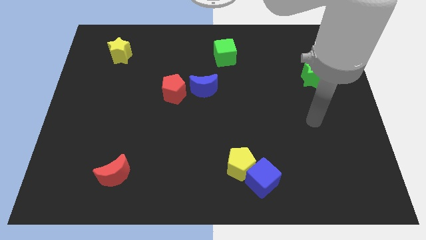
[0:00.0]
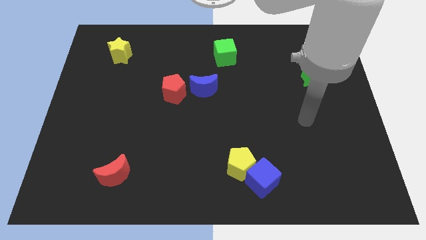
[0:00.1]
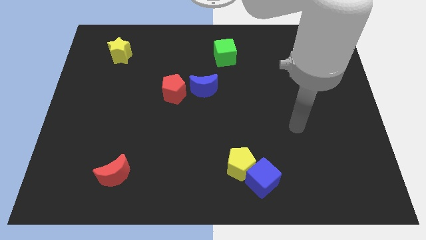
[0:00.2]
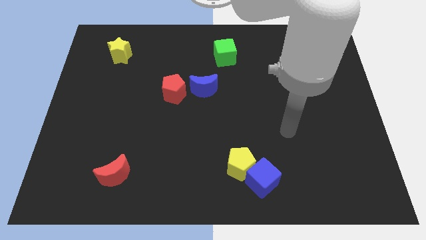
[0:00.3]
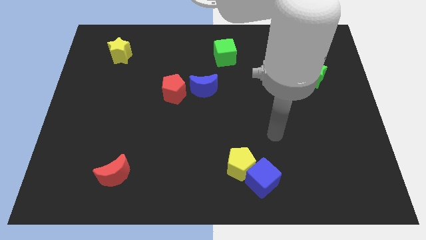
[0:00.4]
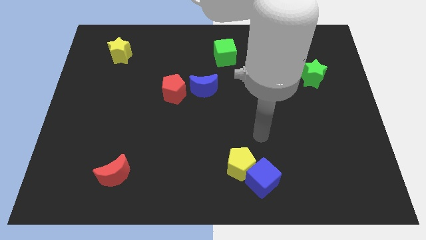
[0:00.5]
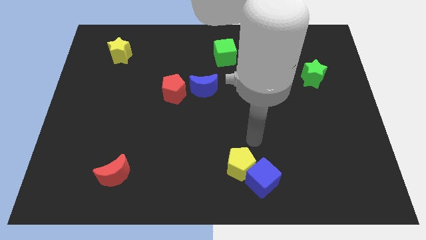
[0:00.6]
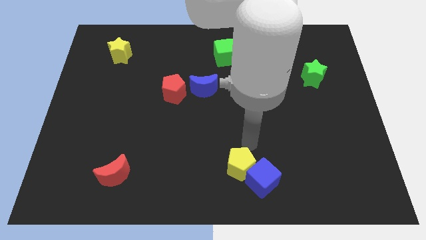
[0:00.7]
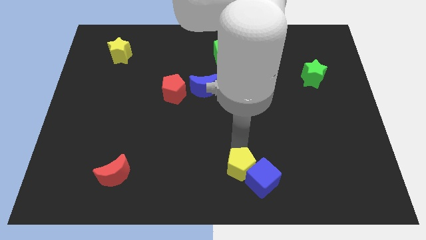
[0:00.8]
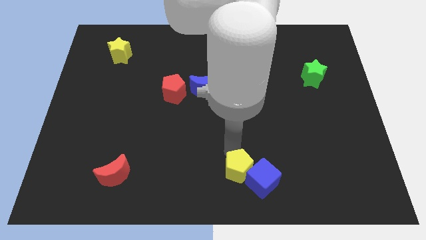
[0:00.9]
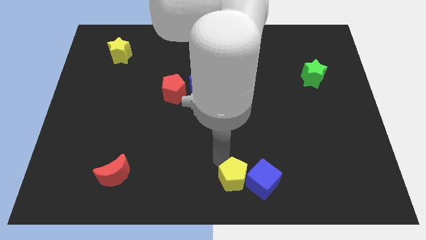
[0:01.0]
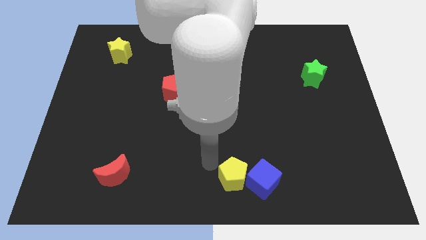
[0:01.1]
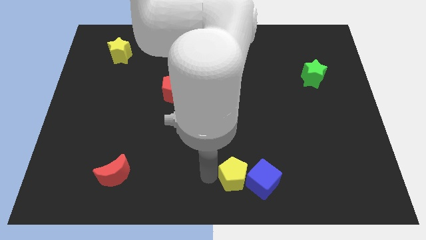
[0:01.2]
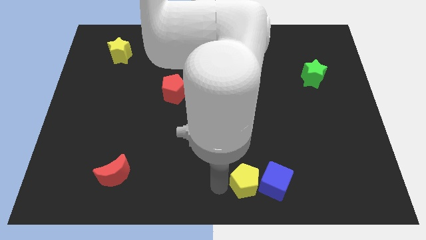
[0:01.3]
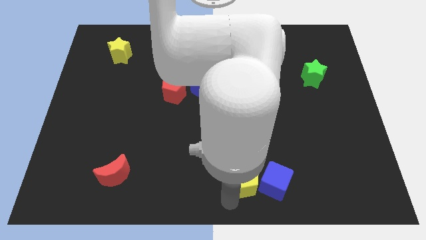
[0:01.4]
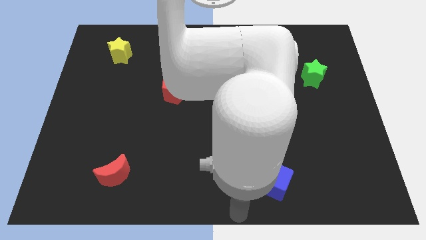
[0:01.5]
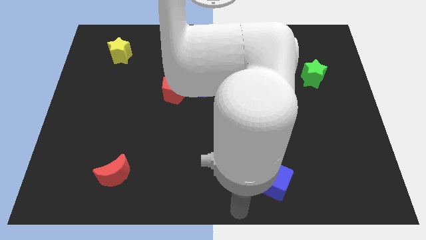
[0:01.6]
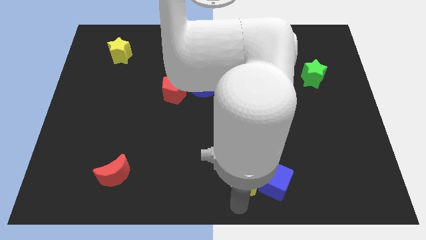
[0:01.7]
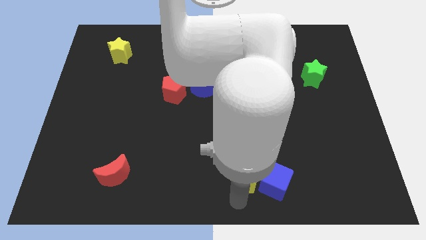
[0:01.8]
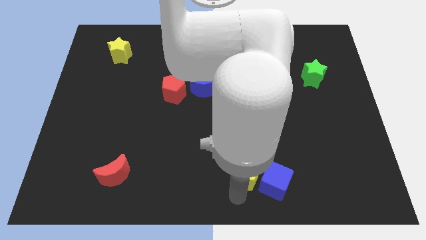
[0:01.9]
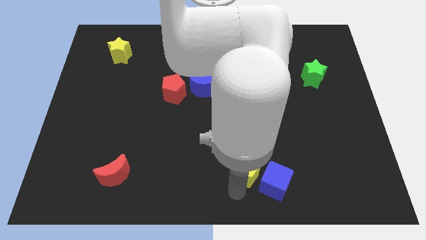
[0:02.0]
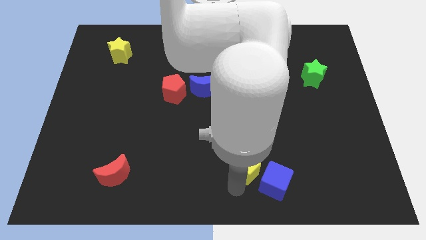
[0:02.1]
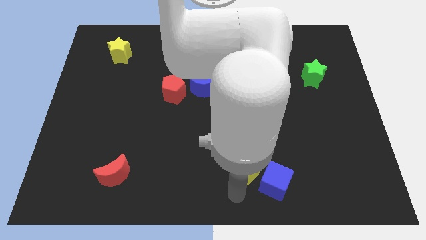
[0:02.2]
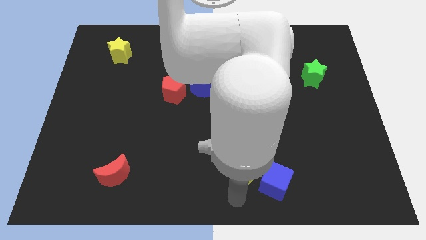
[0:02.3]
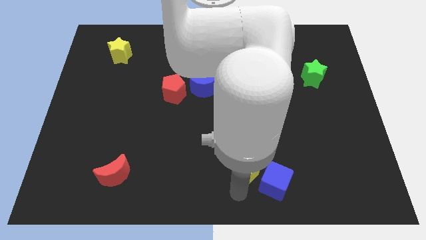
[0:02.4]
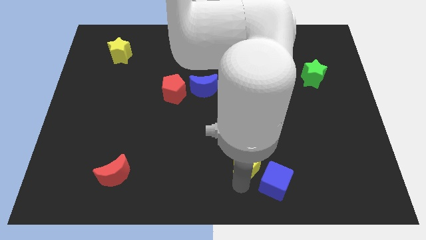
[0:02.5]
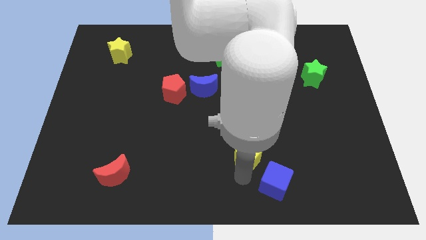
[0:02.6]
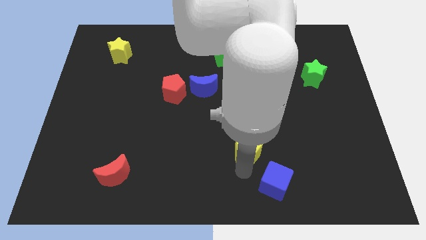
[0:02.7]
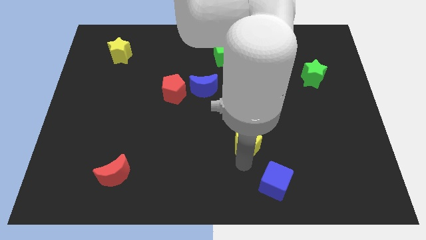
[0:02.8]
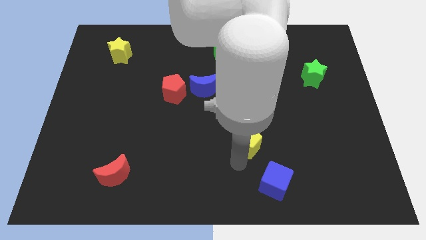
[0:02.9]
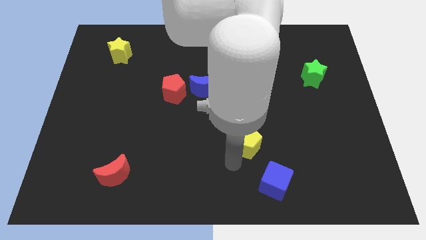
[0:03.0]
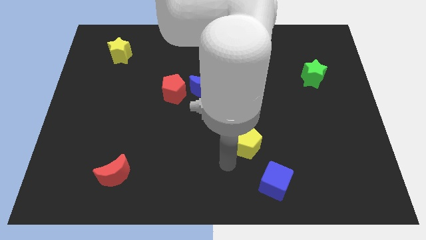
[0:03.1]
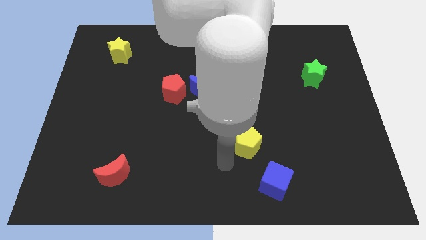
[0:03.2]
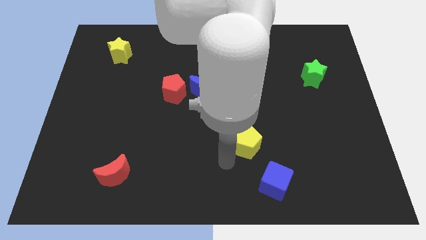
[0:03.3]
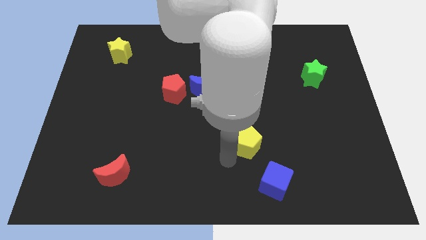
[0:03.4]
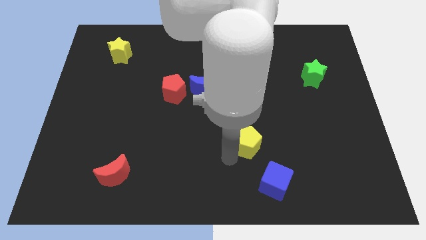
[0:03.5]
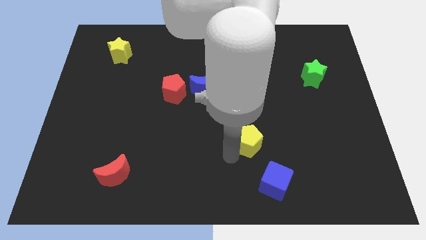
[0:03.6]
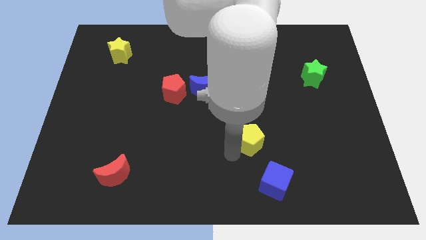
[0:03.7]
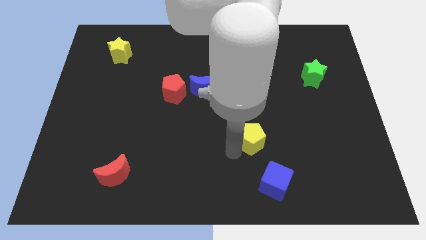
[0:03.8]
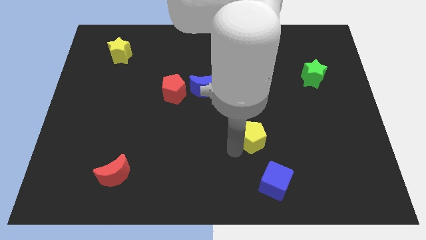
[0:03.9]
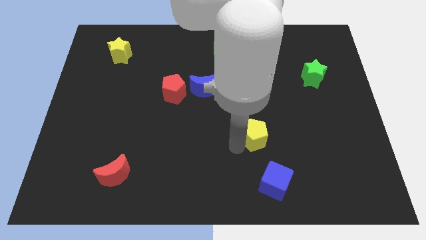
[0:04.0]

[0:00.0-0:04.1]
slide the yellow pentagon a little upwards and to the right diagonally

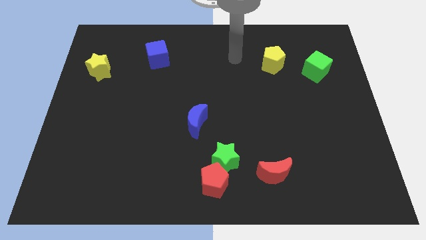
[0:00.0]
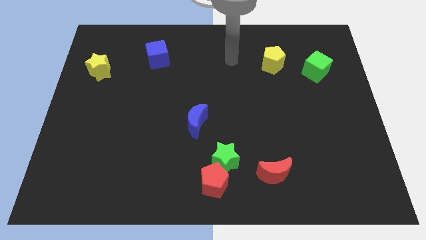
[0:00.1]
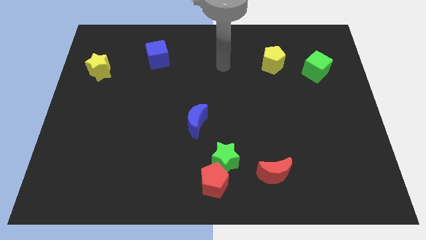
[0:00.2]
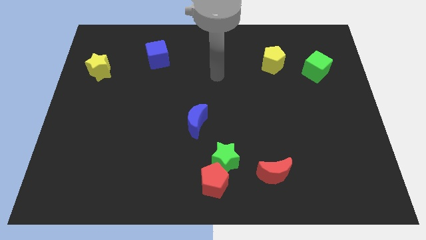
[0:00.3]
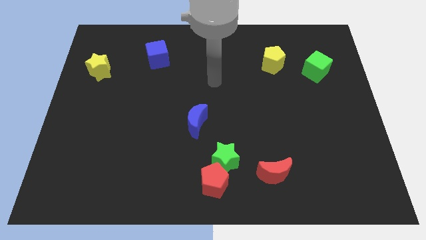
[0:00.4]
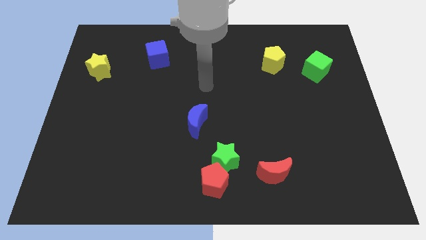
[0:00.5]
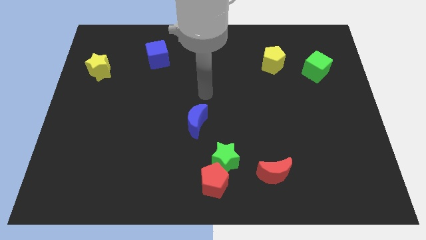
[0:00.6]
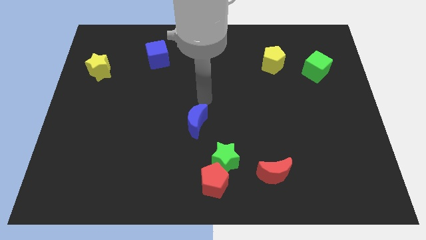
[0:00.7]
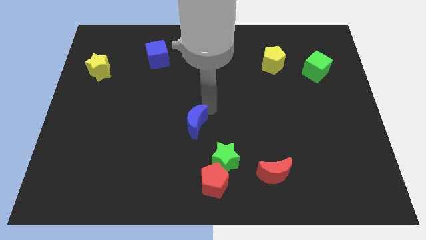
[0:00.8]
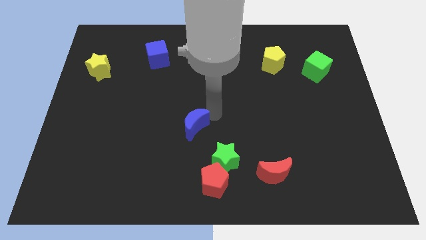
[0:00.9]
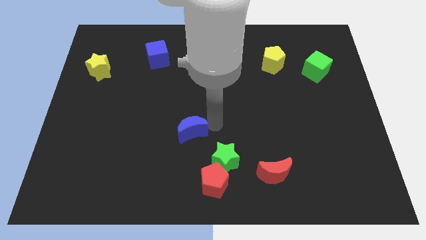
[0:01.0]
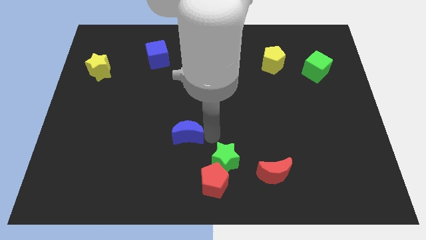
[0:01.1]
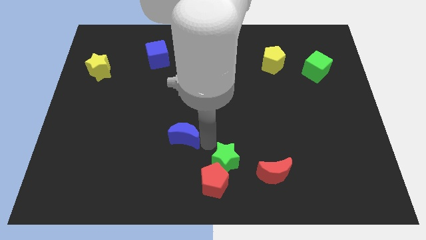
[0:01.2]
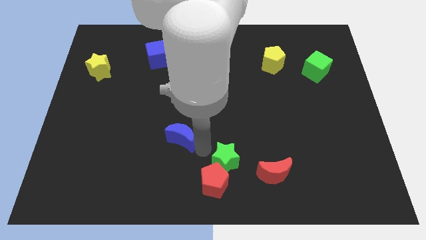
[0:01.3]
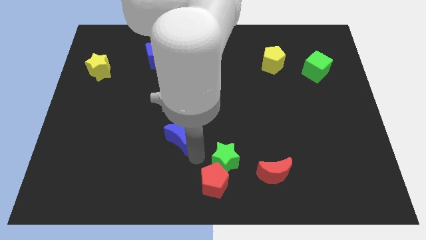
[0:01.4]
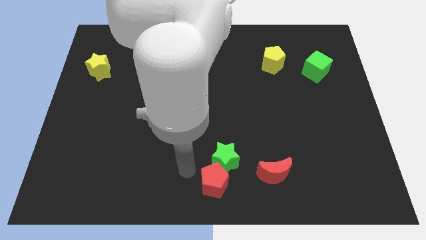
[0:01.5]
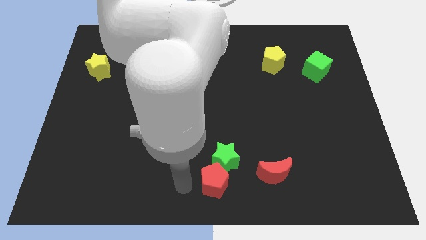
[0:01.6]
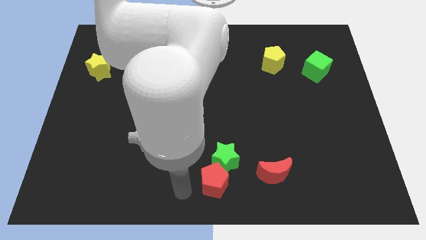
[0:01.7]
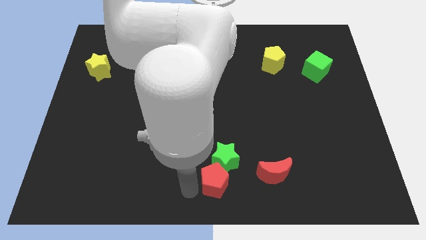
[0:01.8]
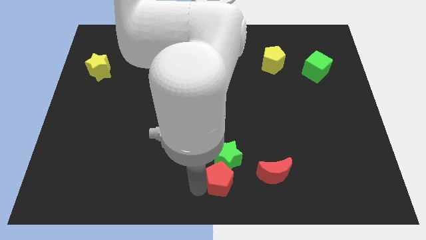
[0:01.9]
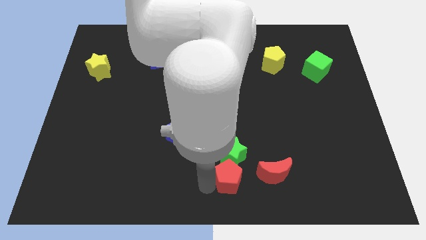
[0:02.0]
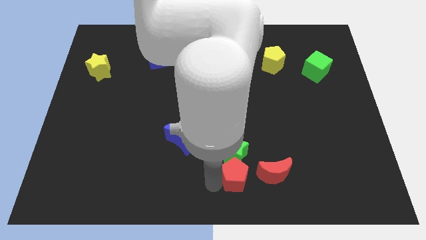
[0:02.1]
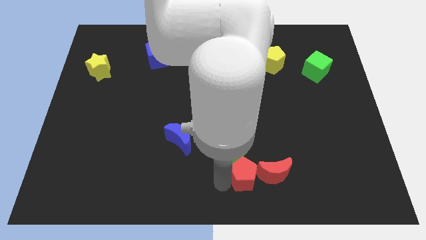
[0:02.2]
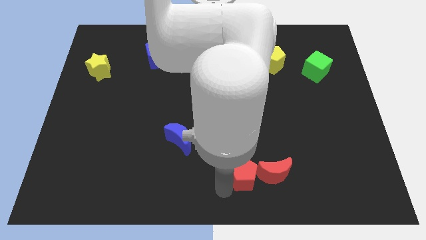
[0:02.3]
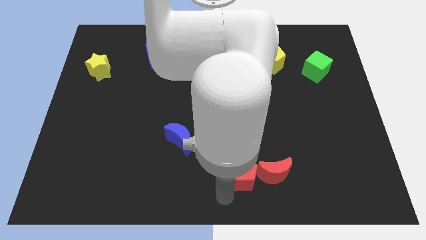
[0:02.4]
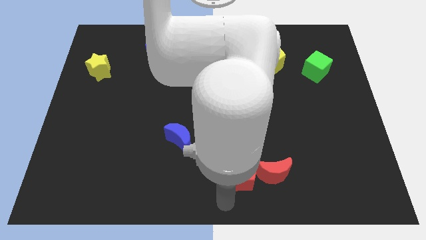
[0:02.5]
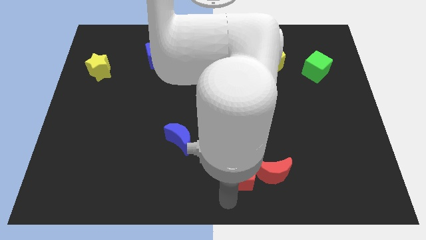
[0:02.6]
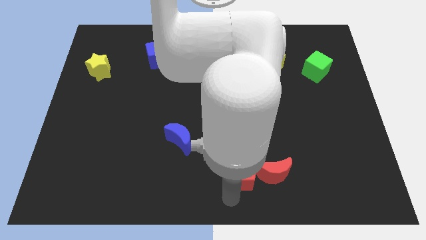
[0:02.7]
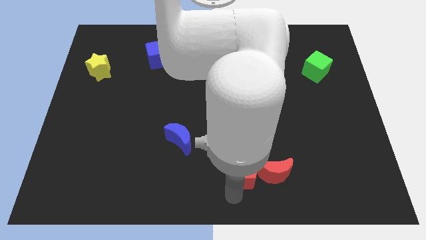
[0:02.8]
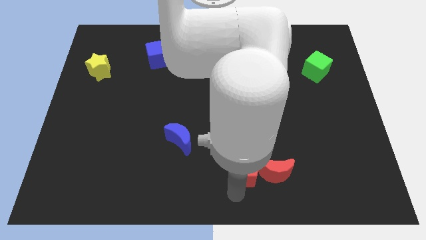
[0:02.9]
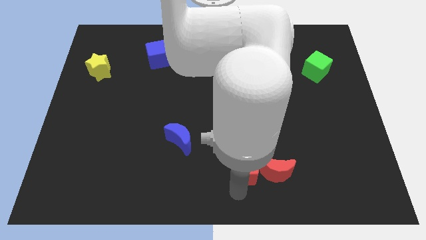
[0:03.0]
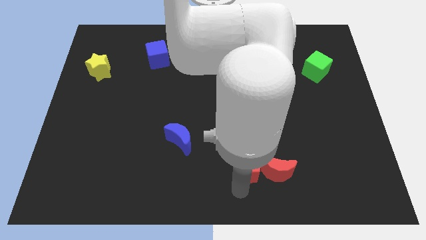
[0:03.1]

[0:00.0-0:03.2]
move the red pentagon up and to the right a bit

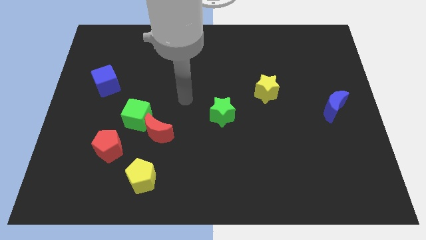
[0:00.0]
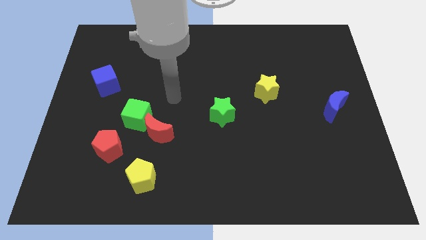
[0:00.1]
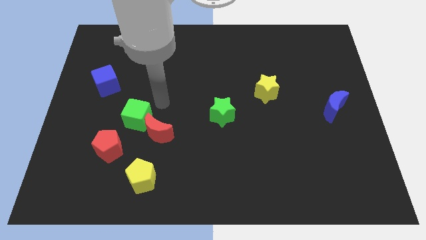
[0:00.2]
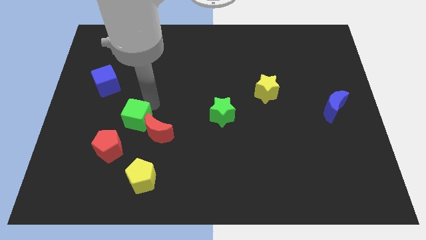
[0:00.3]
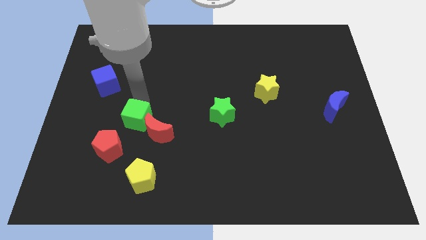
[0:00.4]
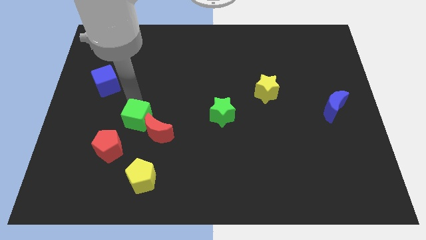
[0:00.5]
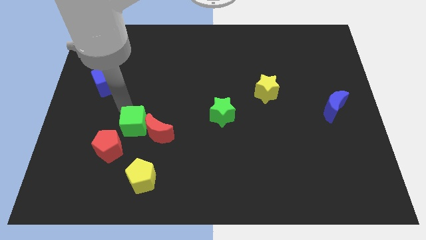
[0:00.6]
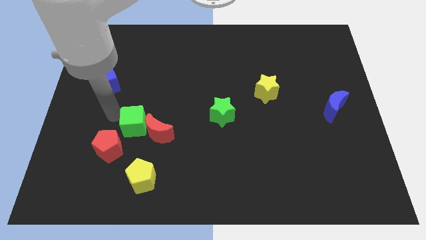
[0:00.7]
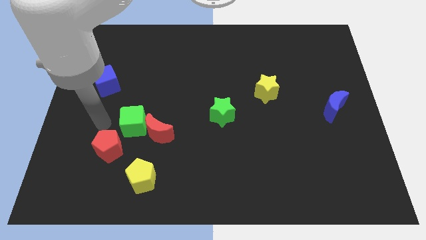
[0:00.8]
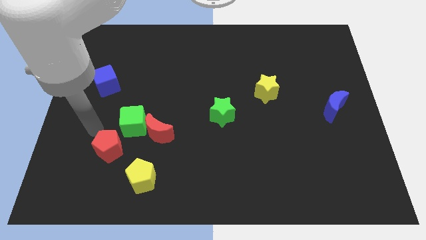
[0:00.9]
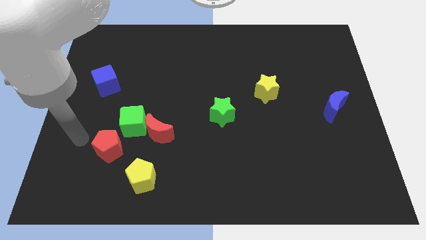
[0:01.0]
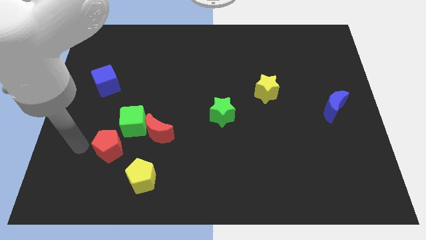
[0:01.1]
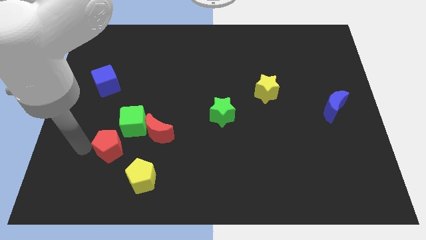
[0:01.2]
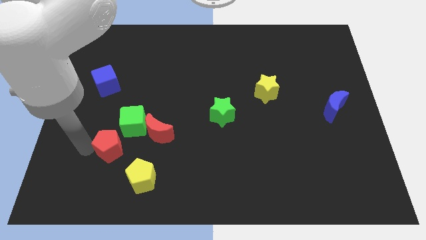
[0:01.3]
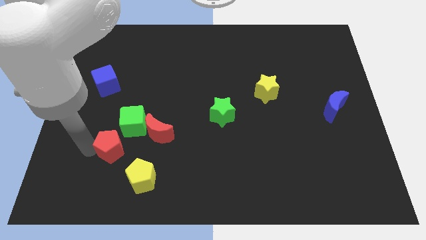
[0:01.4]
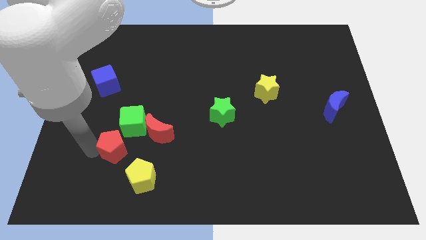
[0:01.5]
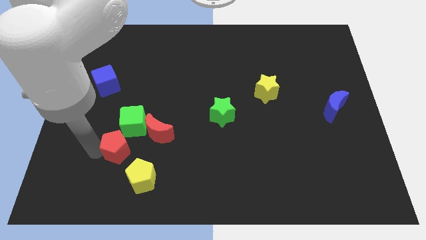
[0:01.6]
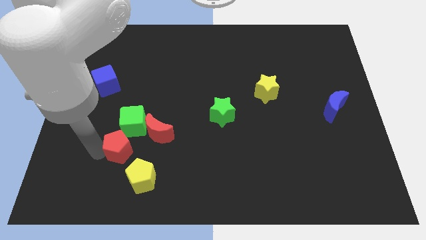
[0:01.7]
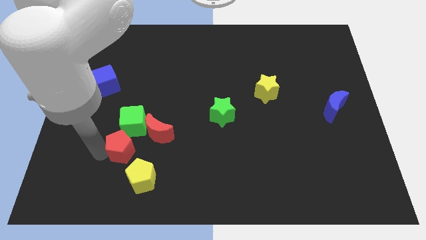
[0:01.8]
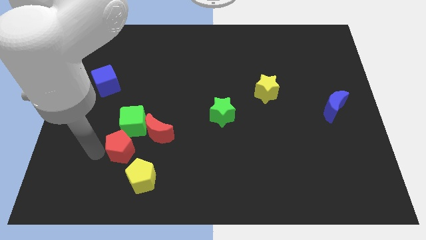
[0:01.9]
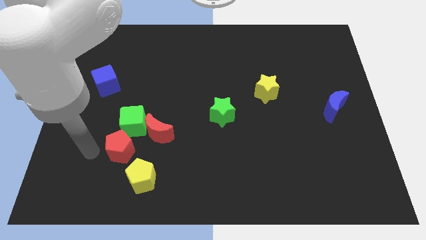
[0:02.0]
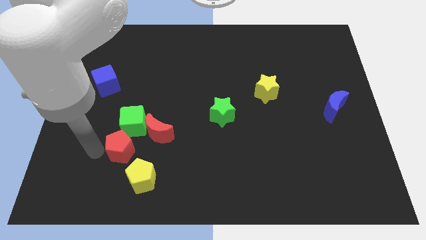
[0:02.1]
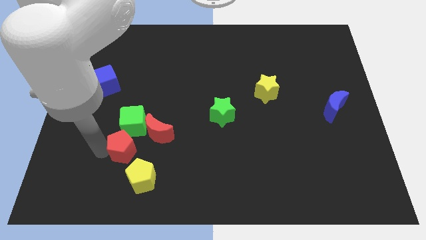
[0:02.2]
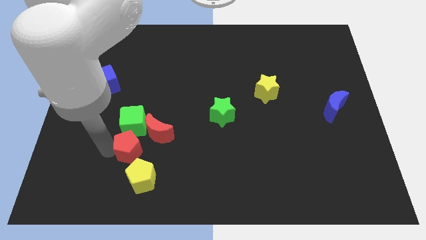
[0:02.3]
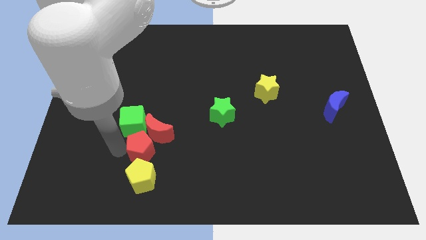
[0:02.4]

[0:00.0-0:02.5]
move the red pentagon to the right somewhat
